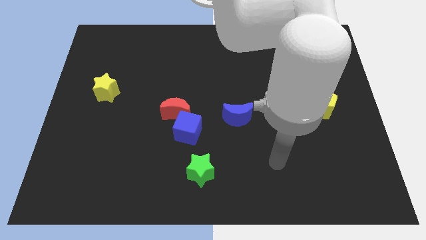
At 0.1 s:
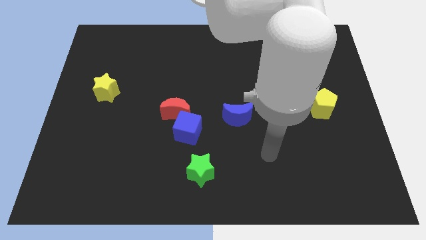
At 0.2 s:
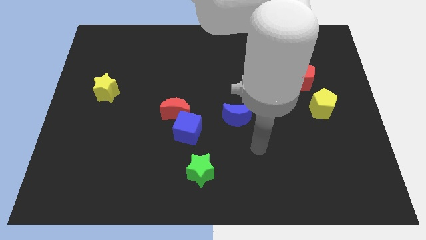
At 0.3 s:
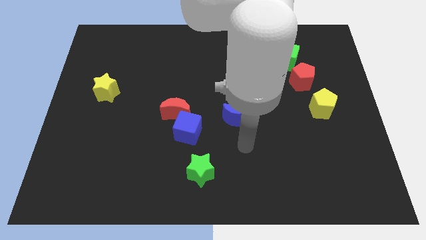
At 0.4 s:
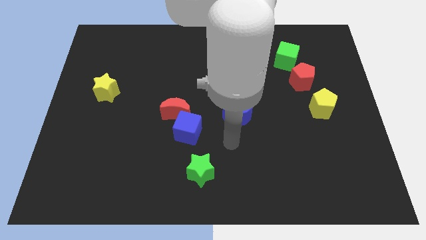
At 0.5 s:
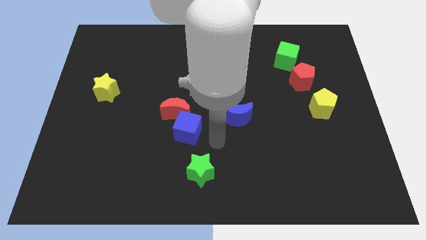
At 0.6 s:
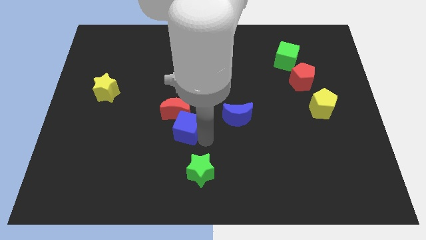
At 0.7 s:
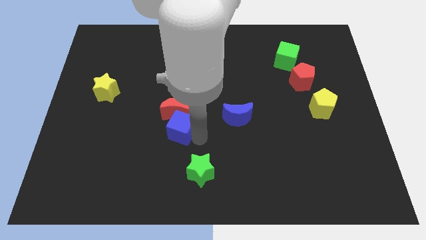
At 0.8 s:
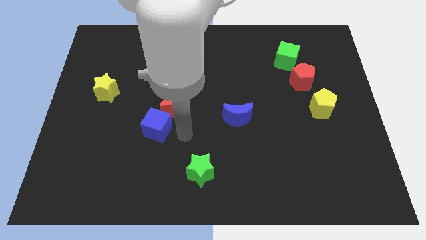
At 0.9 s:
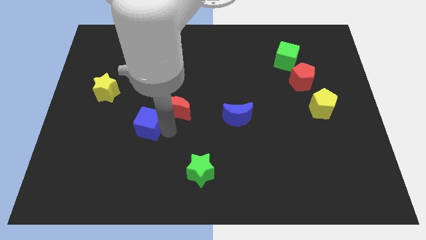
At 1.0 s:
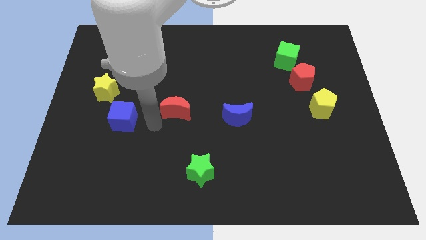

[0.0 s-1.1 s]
separate the red moon from the blue cube

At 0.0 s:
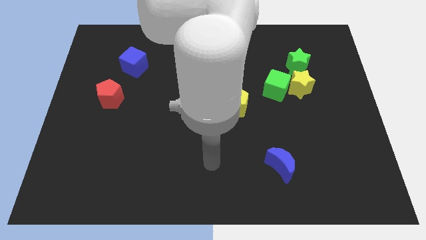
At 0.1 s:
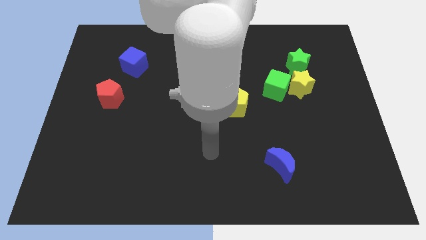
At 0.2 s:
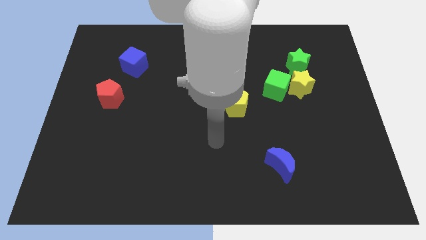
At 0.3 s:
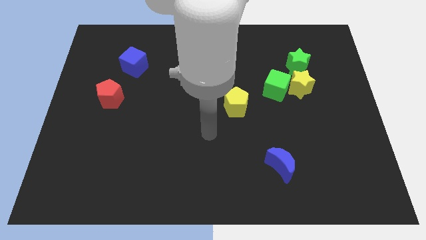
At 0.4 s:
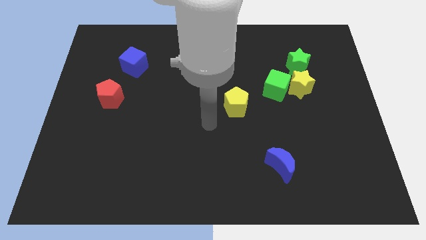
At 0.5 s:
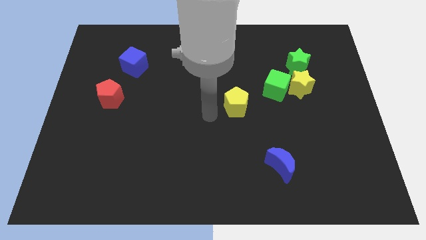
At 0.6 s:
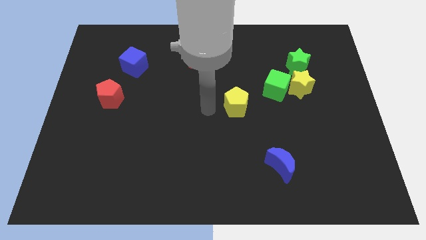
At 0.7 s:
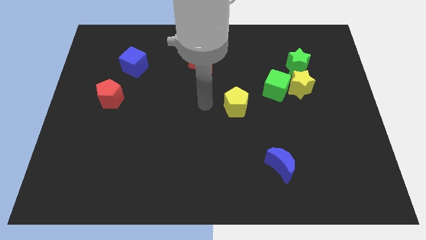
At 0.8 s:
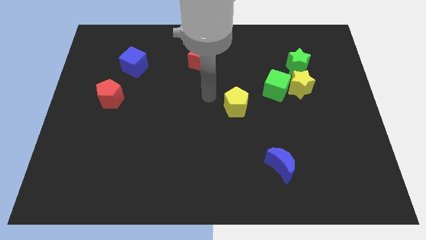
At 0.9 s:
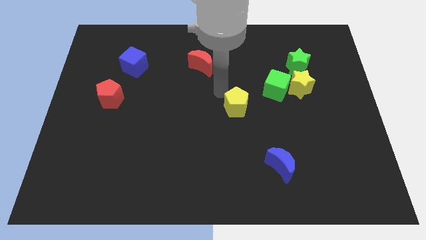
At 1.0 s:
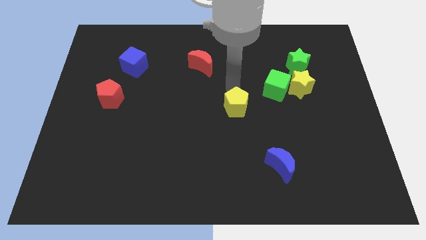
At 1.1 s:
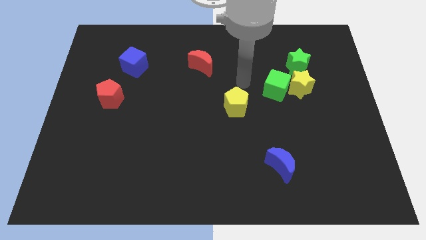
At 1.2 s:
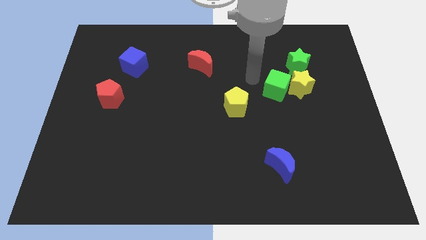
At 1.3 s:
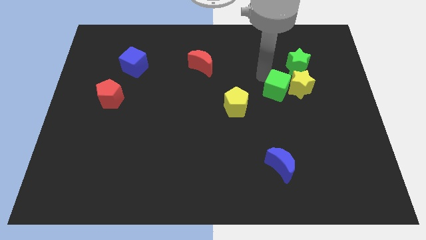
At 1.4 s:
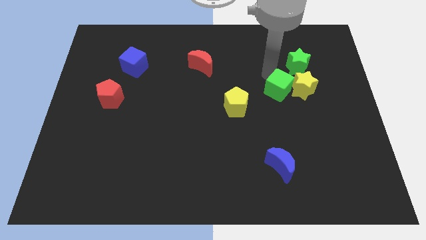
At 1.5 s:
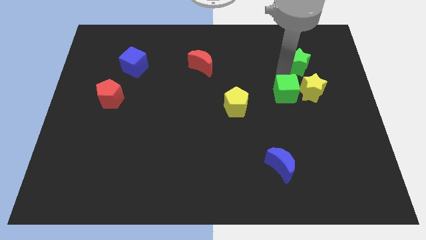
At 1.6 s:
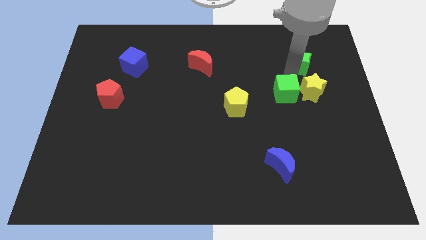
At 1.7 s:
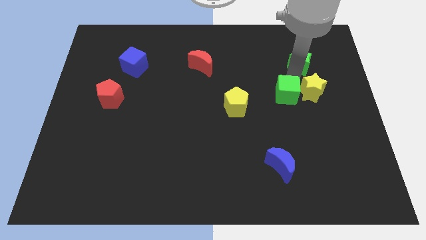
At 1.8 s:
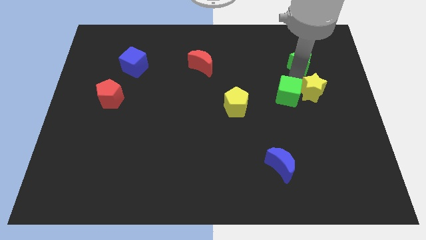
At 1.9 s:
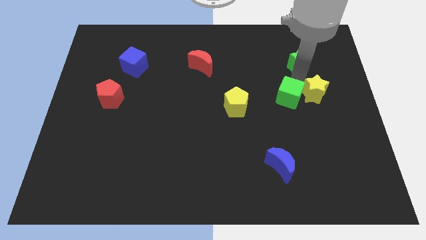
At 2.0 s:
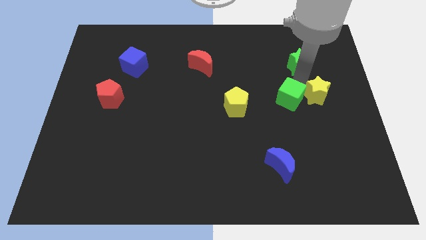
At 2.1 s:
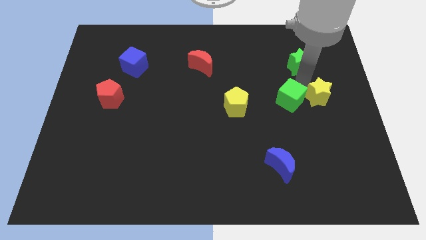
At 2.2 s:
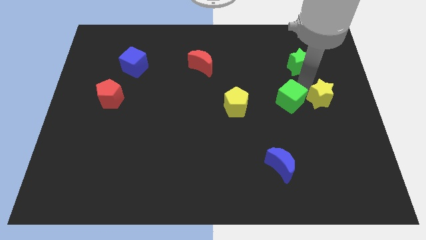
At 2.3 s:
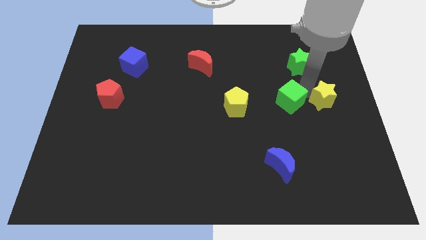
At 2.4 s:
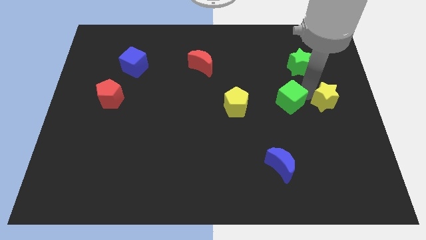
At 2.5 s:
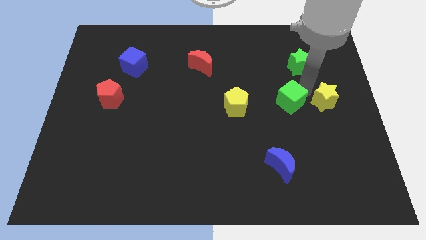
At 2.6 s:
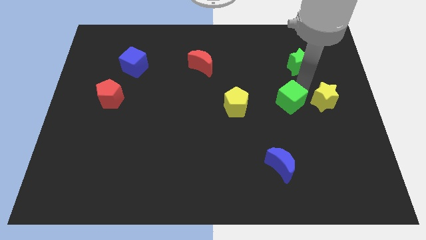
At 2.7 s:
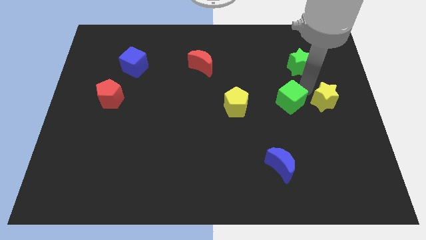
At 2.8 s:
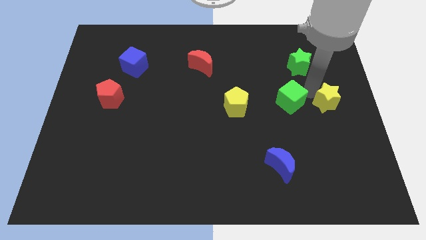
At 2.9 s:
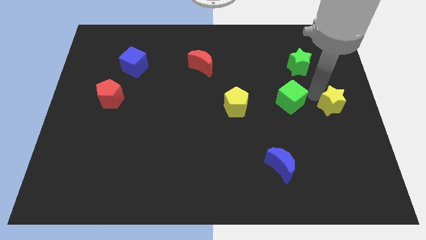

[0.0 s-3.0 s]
move the yellow star away from the green cube and green star

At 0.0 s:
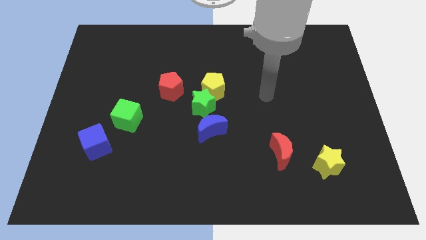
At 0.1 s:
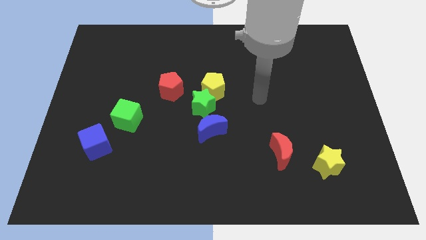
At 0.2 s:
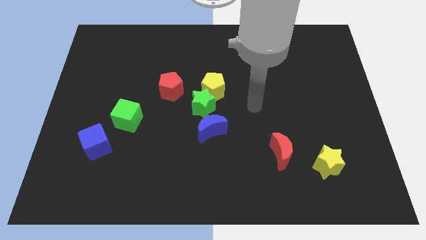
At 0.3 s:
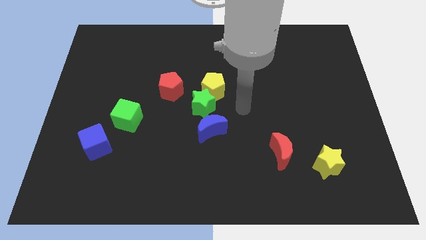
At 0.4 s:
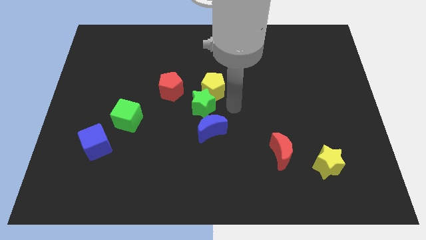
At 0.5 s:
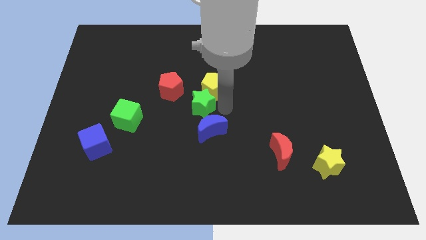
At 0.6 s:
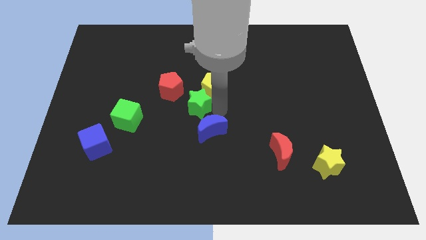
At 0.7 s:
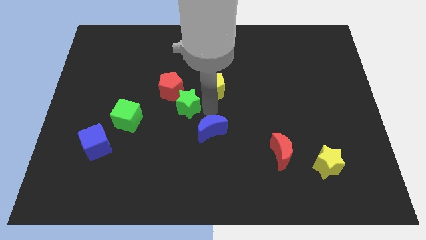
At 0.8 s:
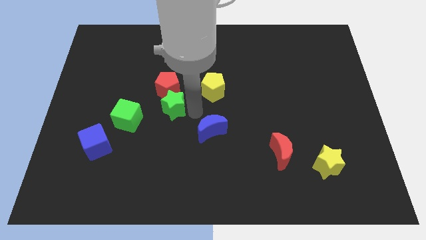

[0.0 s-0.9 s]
move the blue moon away from the green star

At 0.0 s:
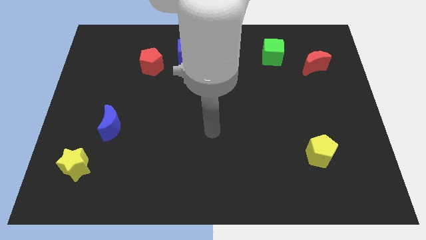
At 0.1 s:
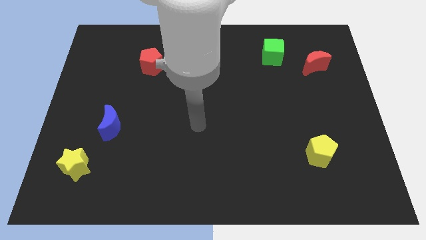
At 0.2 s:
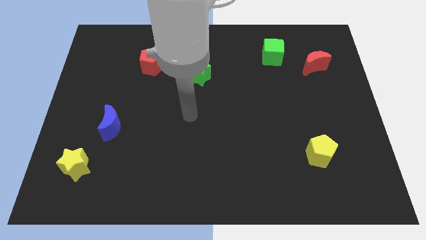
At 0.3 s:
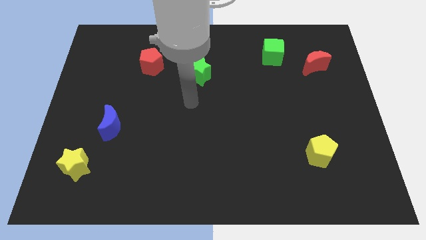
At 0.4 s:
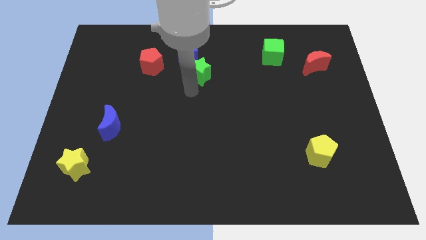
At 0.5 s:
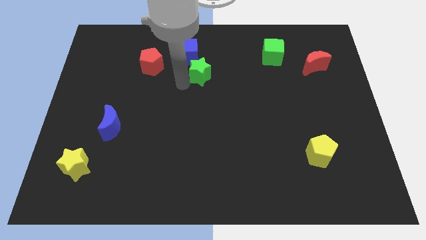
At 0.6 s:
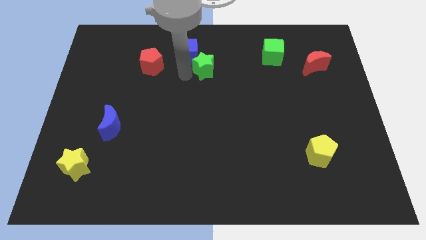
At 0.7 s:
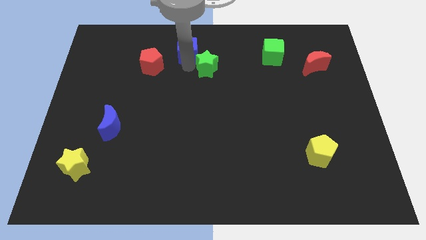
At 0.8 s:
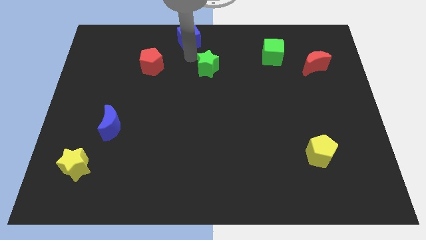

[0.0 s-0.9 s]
separate the green star from the blue cube

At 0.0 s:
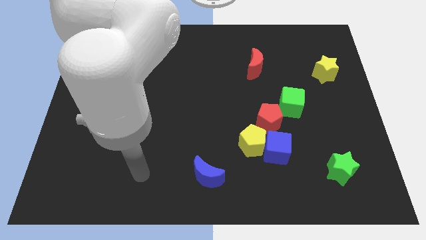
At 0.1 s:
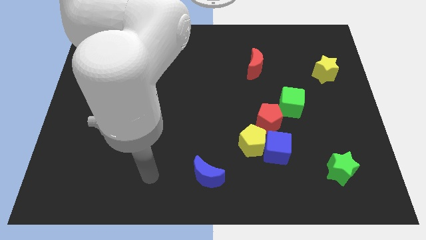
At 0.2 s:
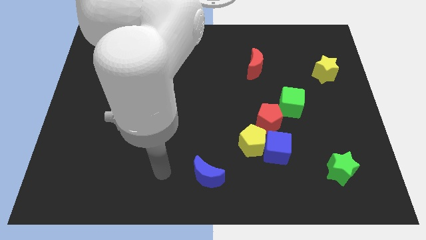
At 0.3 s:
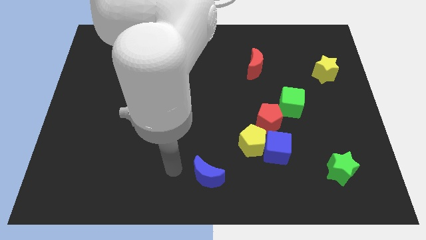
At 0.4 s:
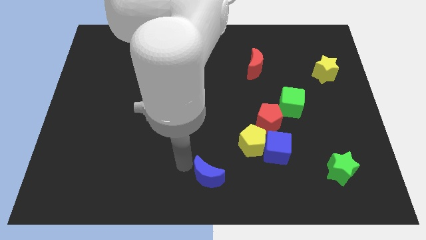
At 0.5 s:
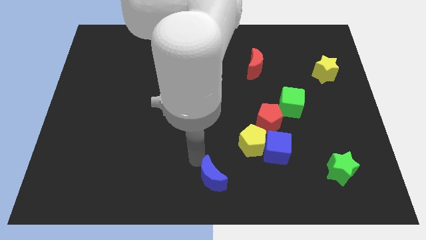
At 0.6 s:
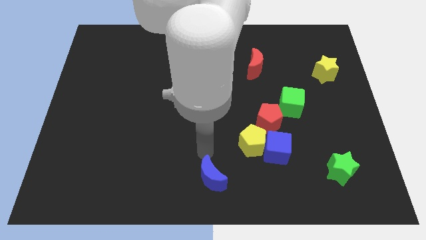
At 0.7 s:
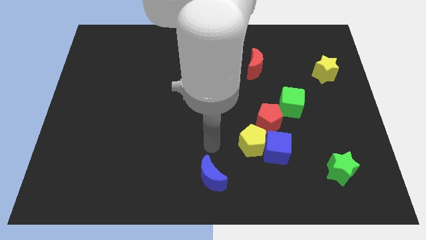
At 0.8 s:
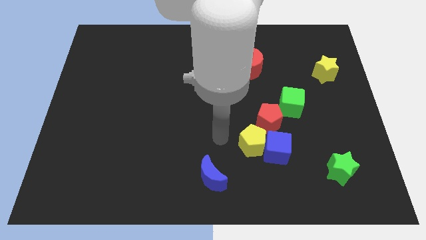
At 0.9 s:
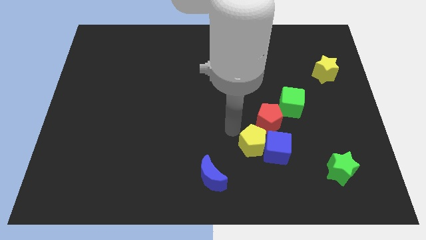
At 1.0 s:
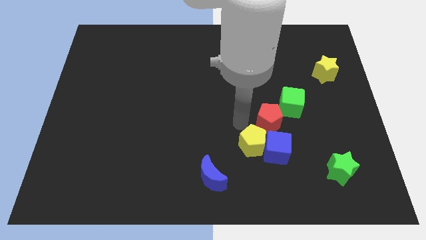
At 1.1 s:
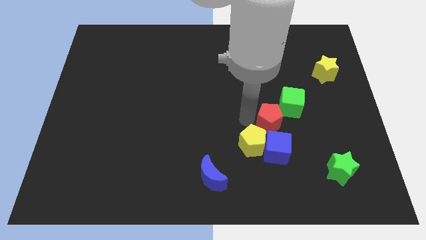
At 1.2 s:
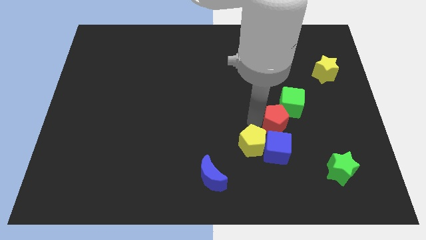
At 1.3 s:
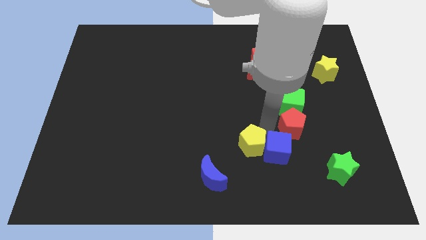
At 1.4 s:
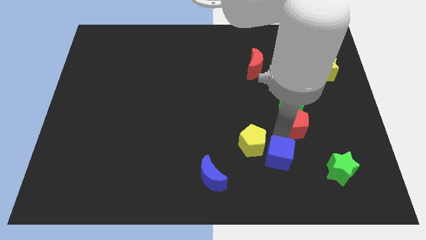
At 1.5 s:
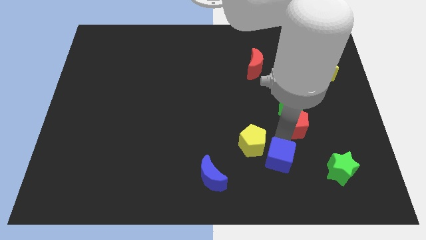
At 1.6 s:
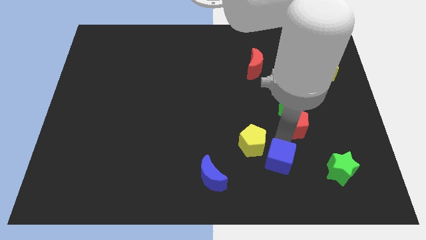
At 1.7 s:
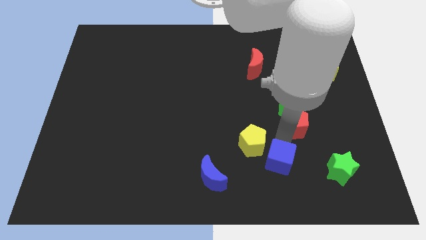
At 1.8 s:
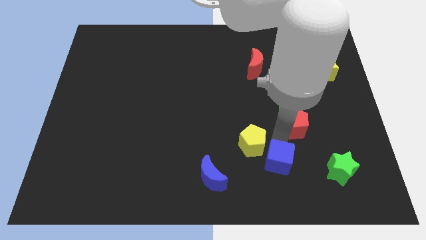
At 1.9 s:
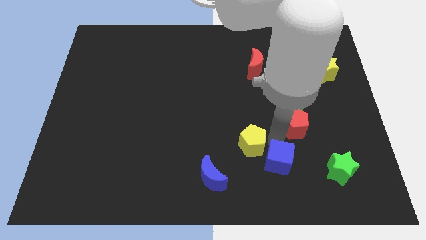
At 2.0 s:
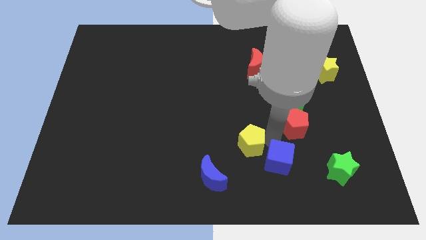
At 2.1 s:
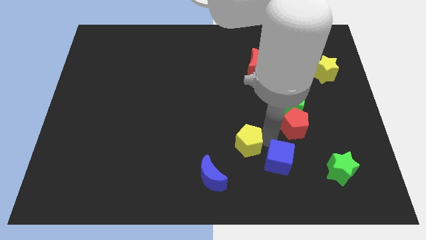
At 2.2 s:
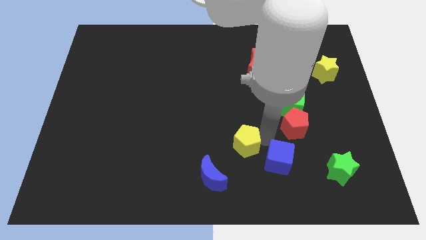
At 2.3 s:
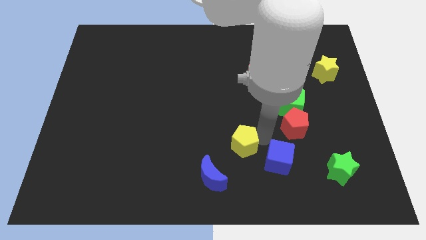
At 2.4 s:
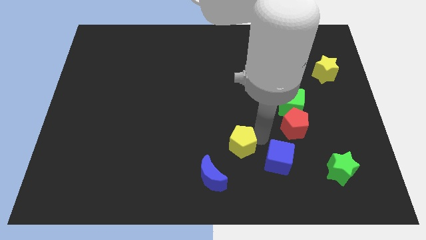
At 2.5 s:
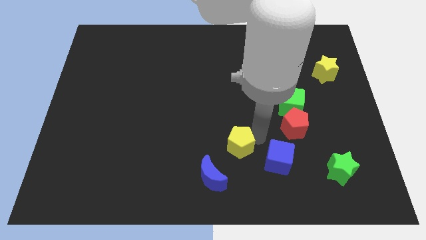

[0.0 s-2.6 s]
move the yellow pentagon away from the blue cube and red pentagon

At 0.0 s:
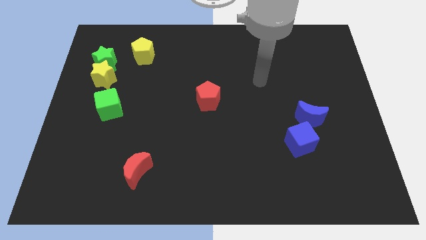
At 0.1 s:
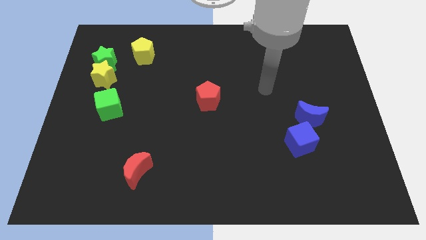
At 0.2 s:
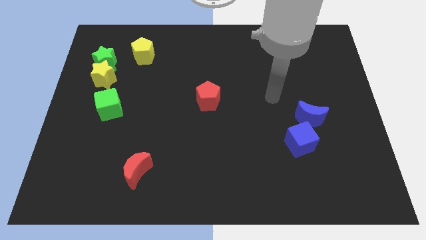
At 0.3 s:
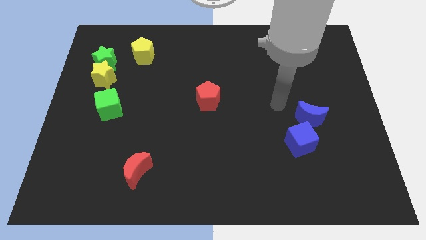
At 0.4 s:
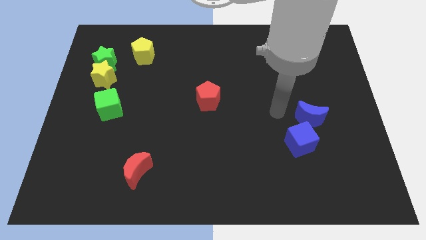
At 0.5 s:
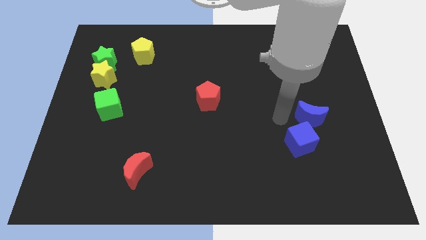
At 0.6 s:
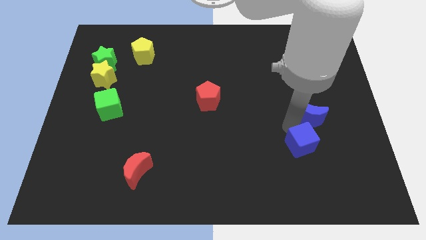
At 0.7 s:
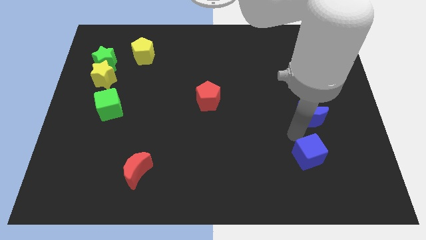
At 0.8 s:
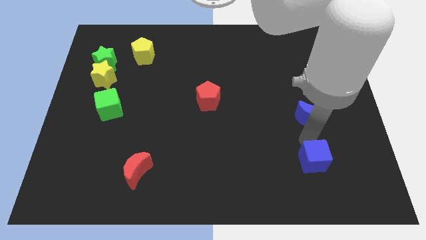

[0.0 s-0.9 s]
pull the blue moon apart from the blue cube

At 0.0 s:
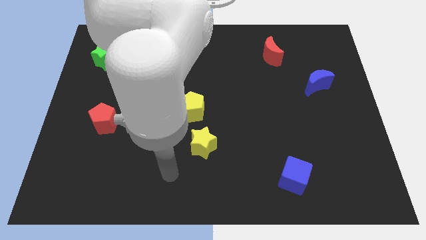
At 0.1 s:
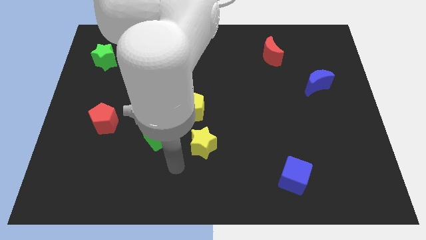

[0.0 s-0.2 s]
pull the yellow pentagon apart from the yellow star
